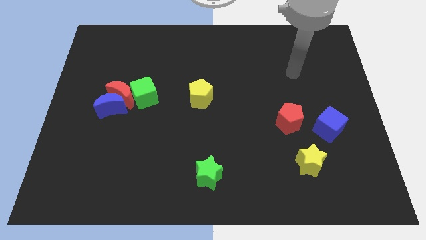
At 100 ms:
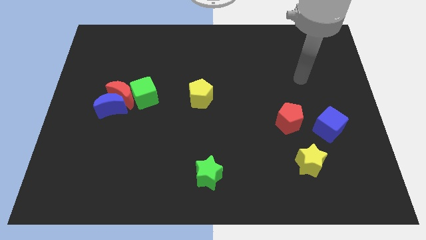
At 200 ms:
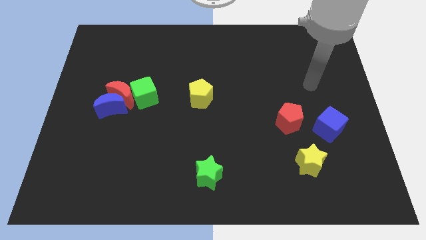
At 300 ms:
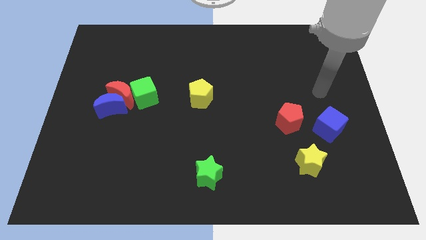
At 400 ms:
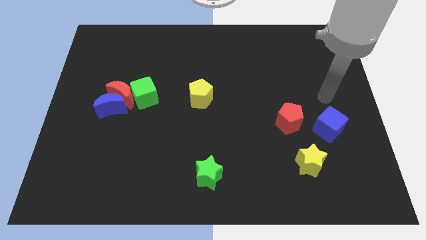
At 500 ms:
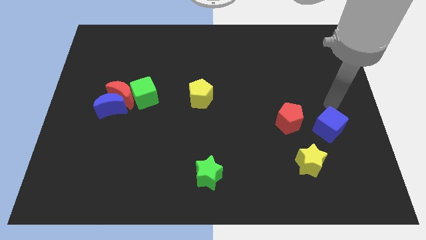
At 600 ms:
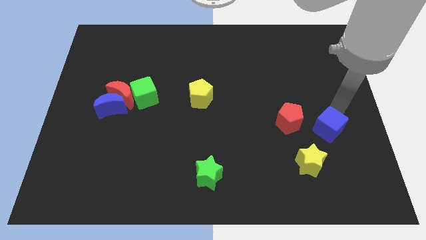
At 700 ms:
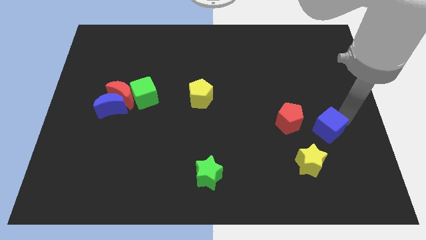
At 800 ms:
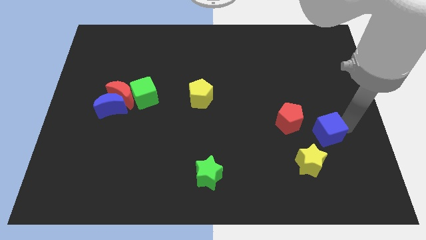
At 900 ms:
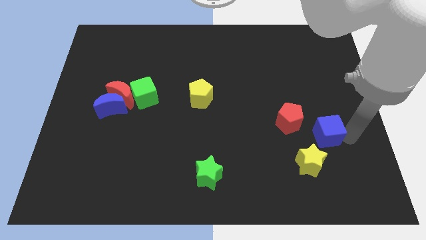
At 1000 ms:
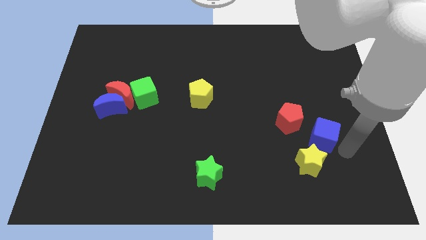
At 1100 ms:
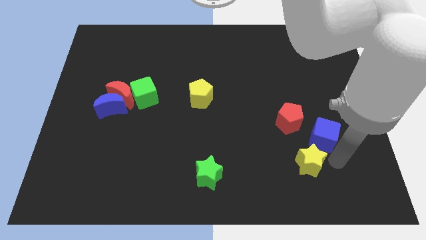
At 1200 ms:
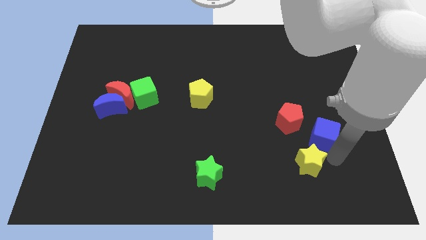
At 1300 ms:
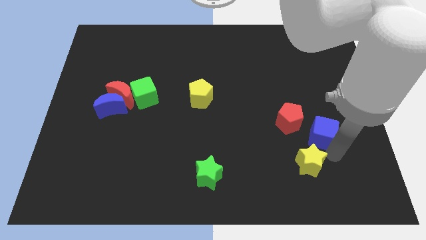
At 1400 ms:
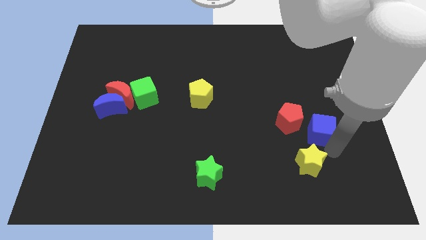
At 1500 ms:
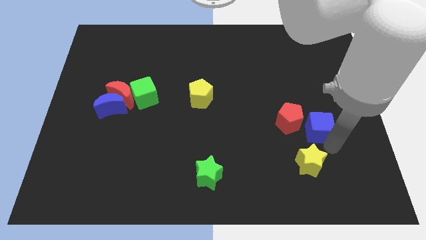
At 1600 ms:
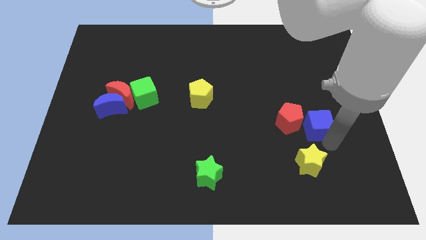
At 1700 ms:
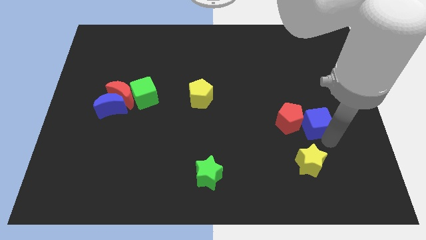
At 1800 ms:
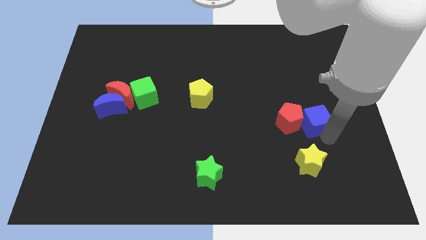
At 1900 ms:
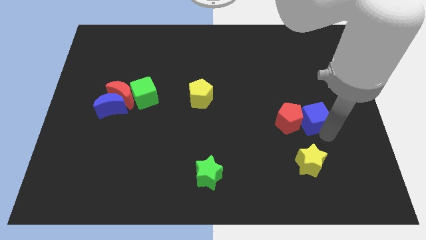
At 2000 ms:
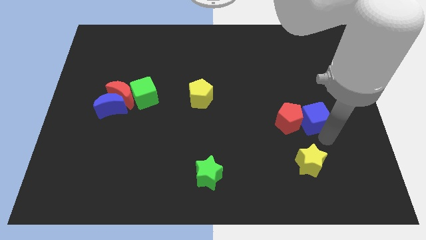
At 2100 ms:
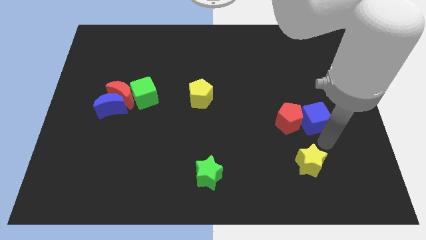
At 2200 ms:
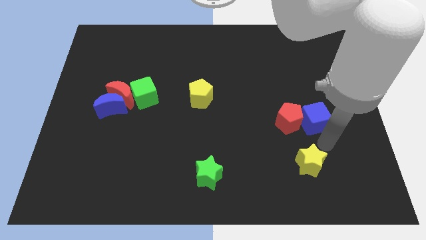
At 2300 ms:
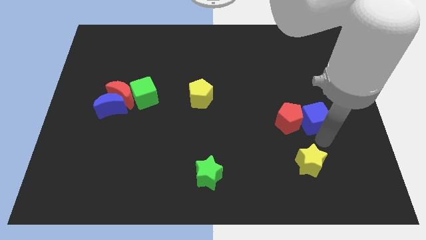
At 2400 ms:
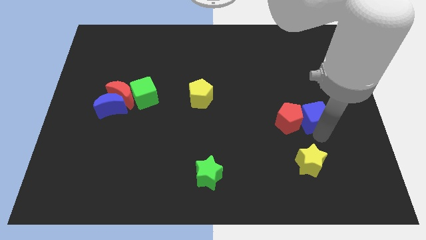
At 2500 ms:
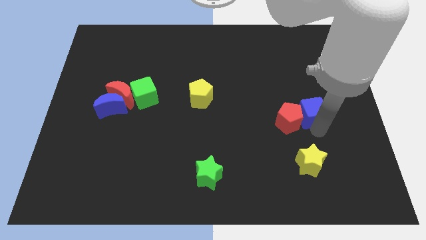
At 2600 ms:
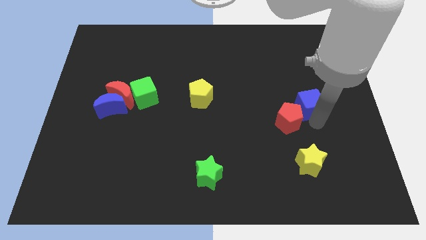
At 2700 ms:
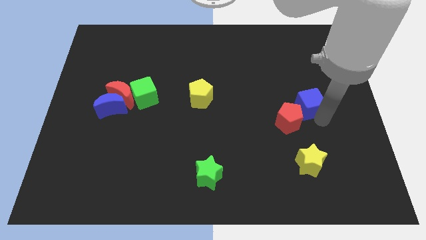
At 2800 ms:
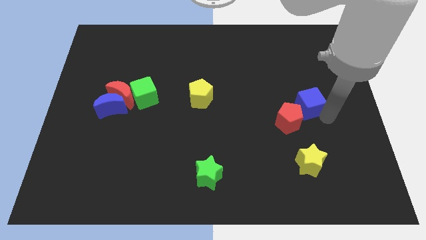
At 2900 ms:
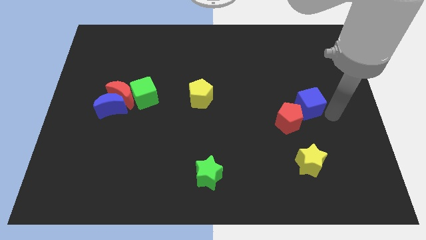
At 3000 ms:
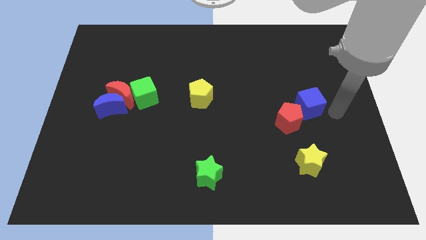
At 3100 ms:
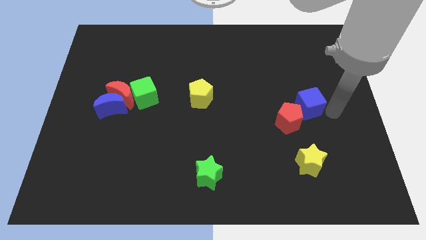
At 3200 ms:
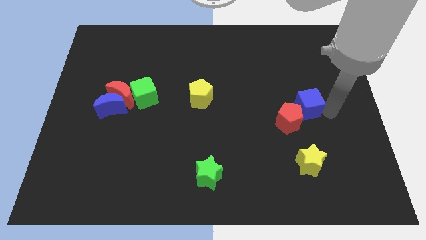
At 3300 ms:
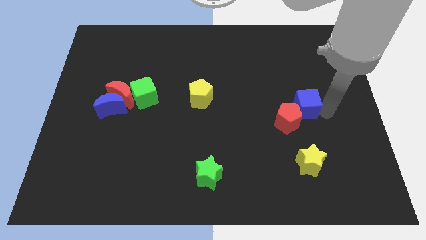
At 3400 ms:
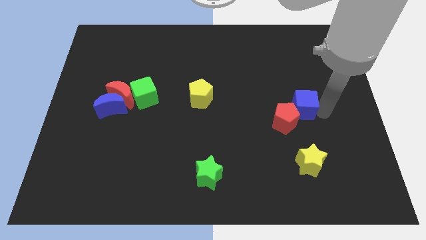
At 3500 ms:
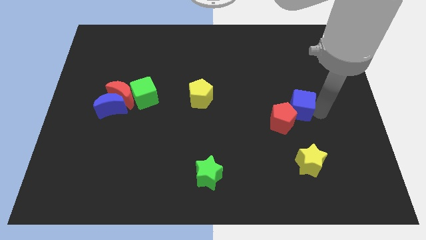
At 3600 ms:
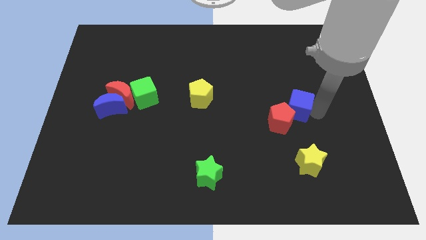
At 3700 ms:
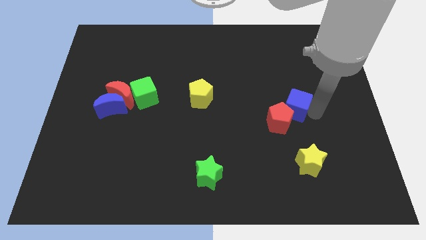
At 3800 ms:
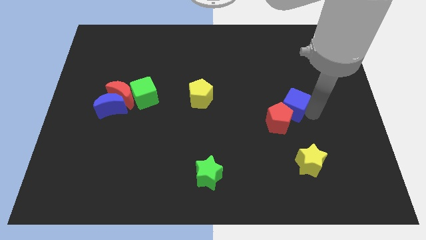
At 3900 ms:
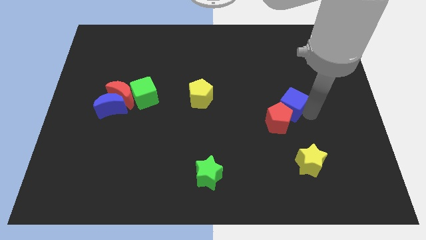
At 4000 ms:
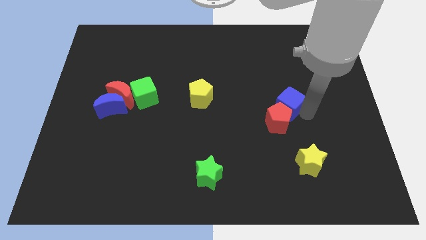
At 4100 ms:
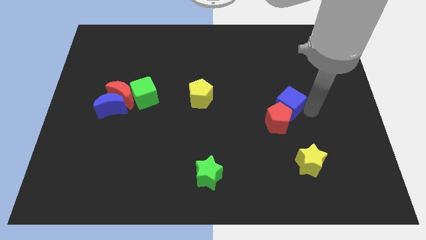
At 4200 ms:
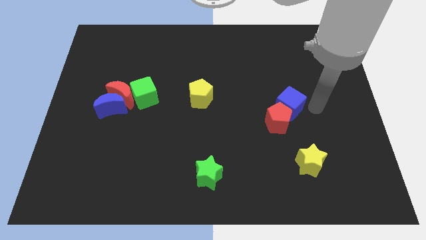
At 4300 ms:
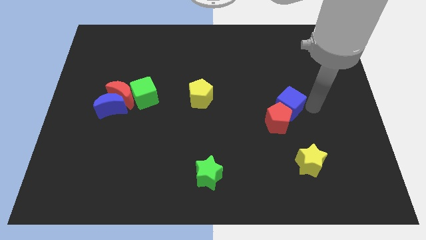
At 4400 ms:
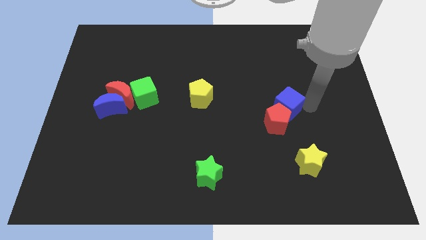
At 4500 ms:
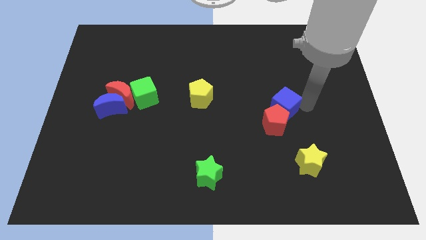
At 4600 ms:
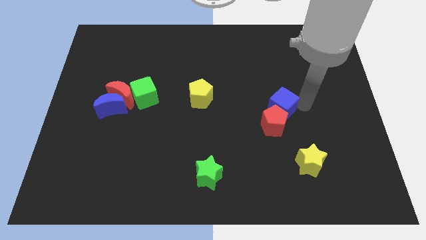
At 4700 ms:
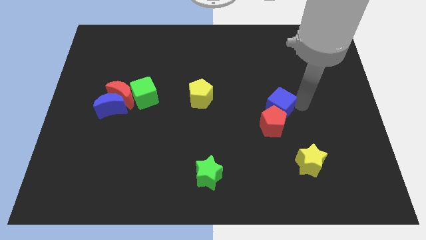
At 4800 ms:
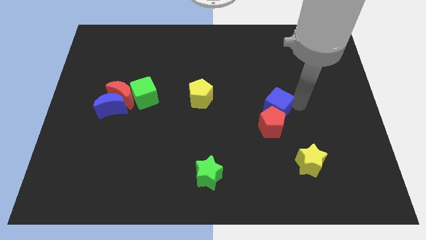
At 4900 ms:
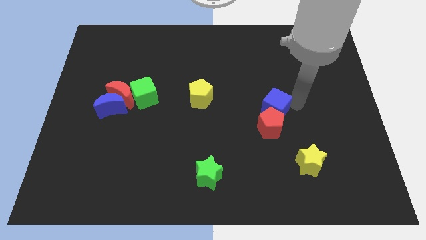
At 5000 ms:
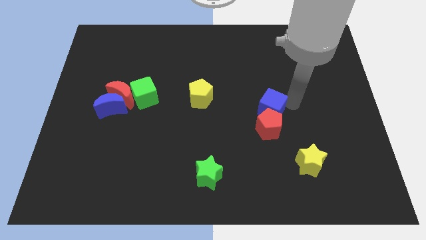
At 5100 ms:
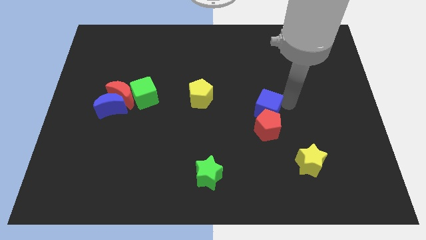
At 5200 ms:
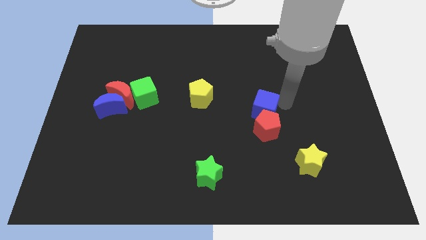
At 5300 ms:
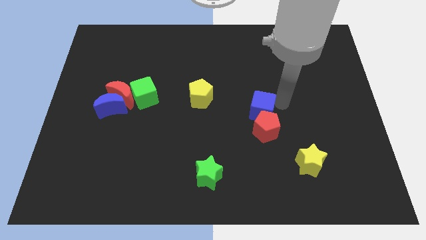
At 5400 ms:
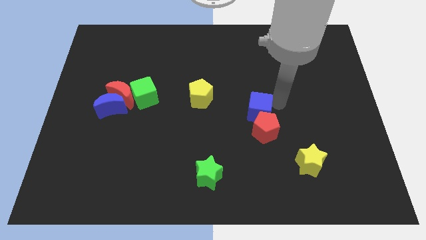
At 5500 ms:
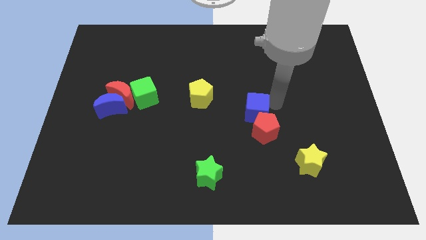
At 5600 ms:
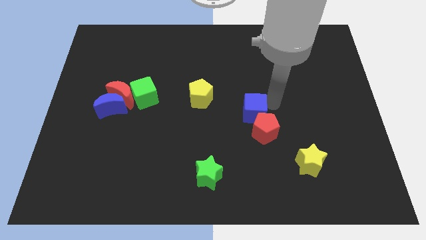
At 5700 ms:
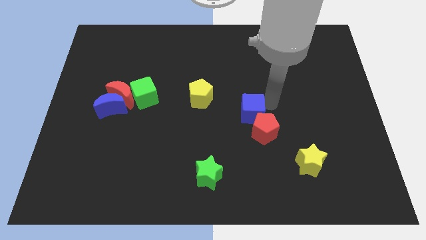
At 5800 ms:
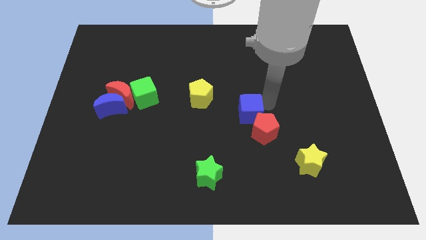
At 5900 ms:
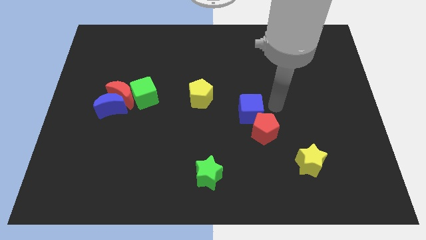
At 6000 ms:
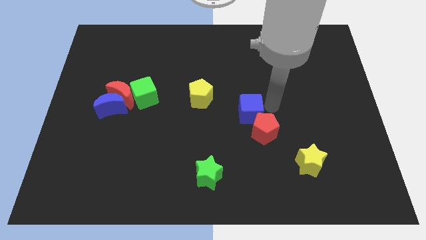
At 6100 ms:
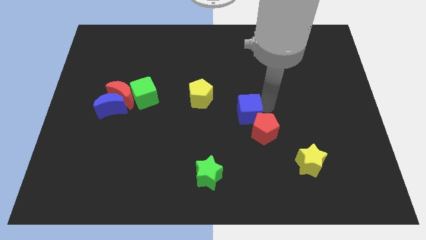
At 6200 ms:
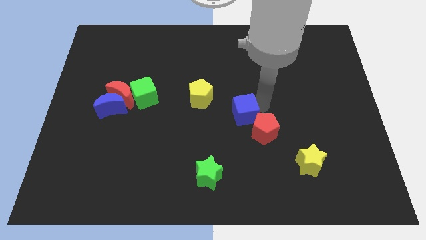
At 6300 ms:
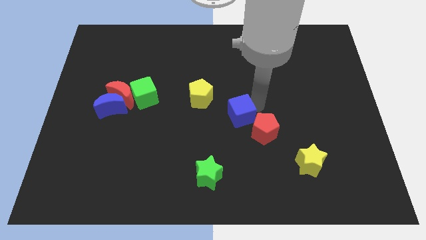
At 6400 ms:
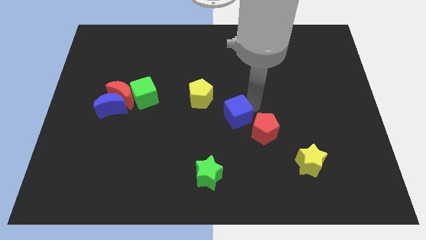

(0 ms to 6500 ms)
slide the blue cube left

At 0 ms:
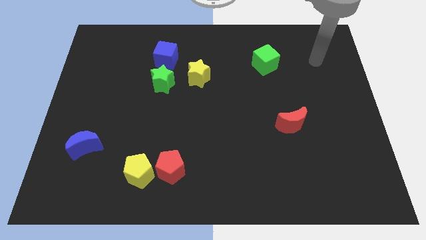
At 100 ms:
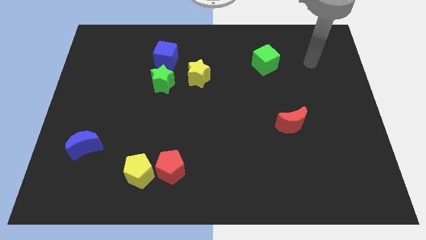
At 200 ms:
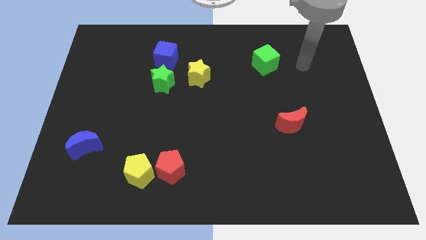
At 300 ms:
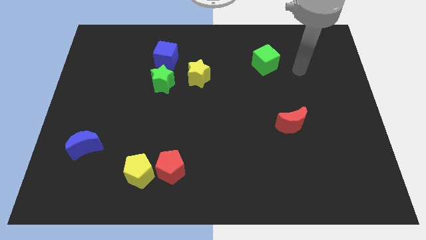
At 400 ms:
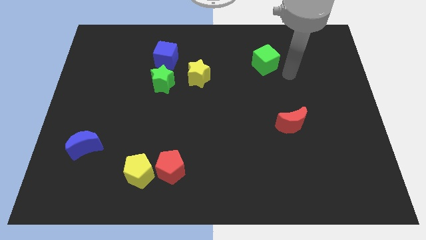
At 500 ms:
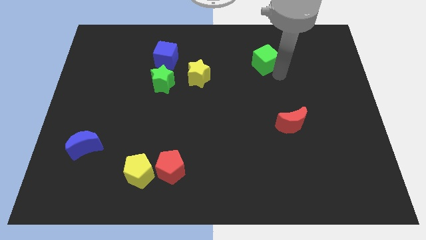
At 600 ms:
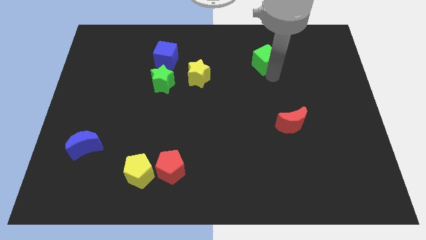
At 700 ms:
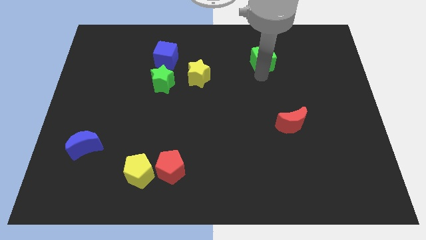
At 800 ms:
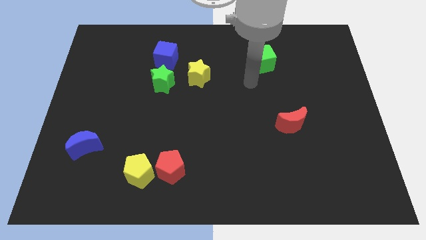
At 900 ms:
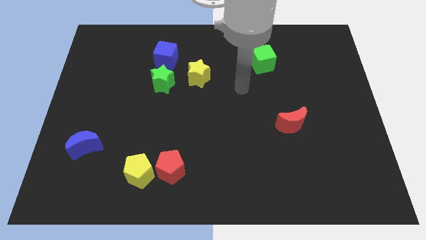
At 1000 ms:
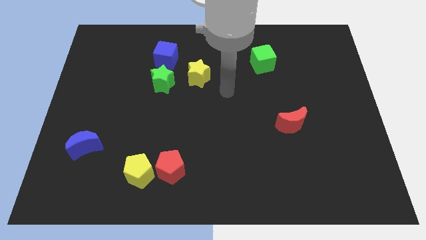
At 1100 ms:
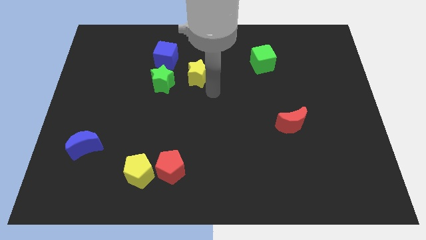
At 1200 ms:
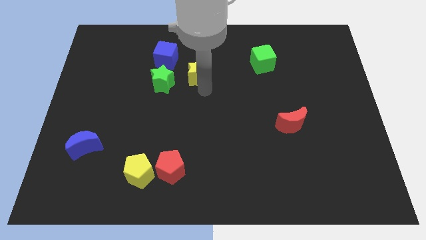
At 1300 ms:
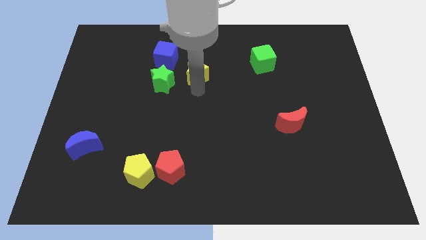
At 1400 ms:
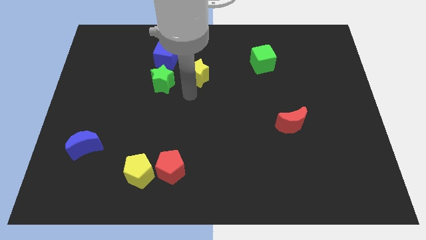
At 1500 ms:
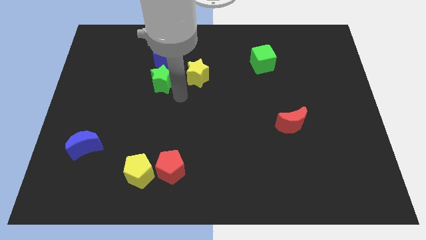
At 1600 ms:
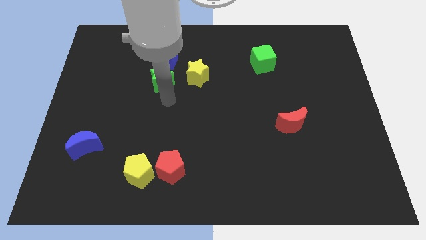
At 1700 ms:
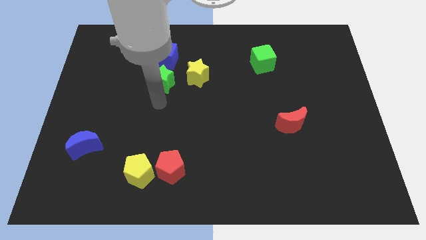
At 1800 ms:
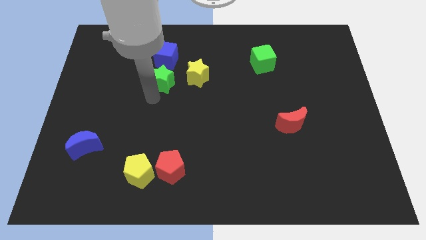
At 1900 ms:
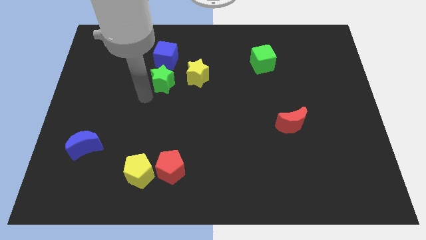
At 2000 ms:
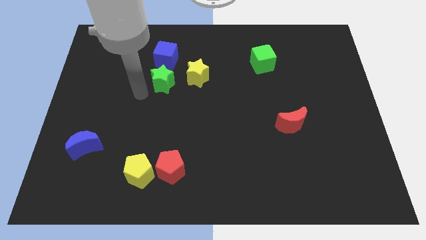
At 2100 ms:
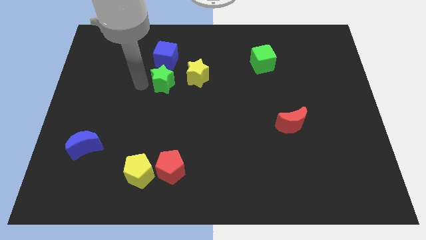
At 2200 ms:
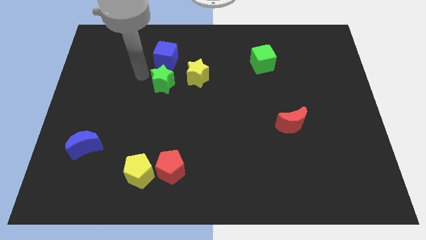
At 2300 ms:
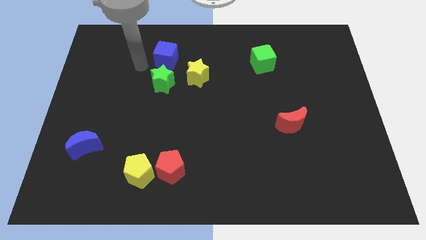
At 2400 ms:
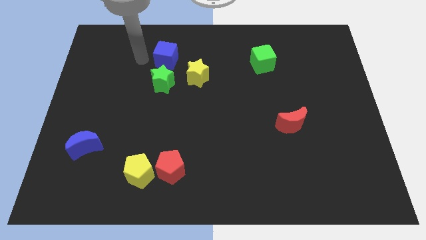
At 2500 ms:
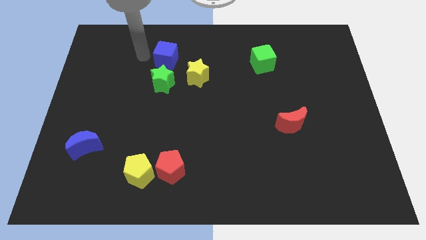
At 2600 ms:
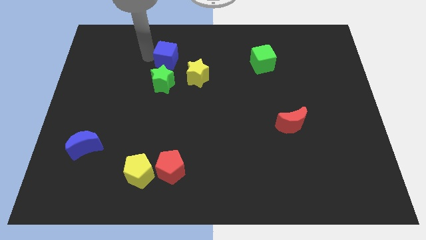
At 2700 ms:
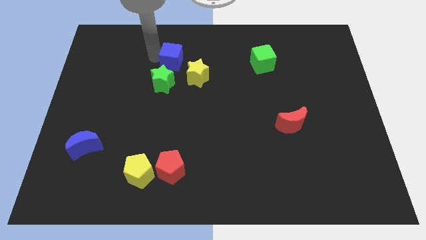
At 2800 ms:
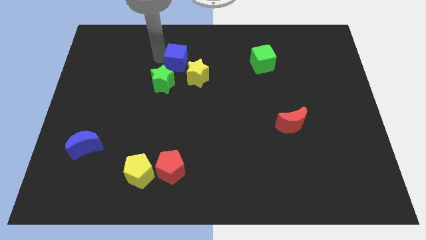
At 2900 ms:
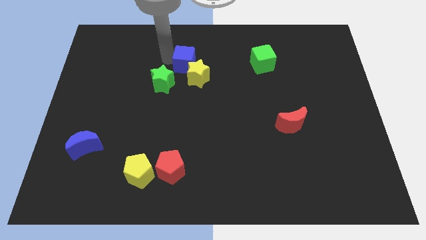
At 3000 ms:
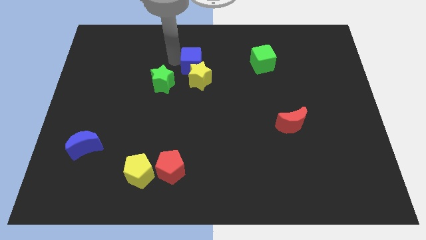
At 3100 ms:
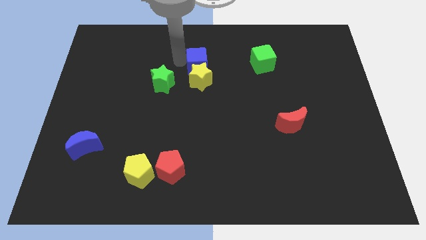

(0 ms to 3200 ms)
move the blue cube diagonally downwards and right a bit
